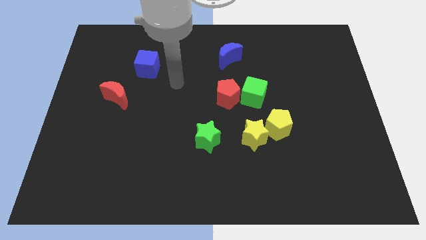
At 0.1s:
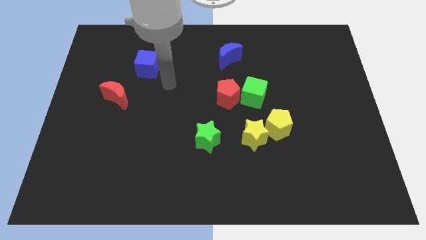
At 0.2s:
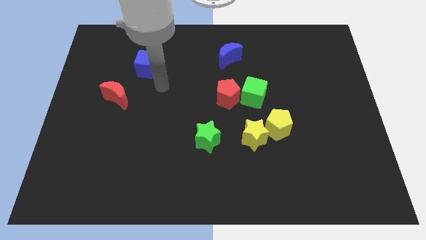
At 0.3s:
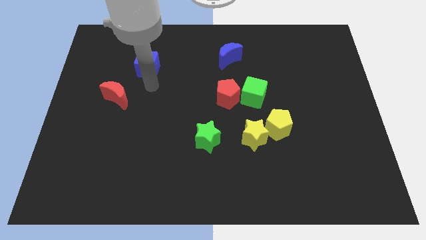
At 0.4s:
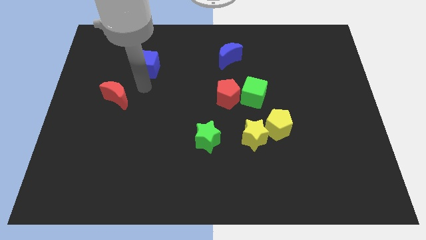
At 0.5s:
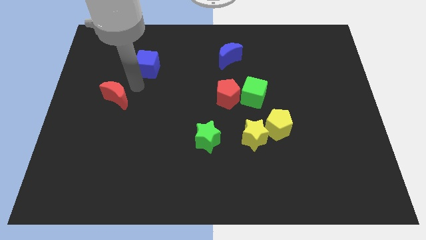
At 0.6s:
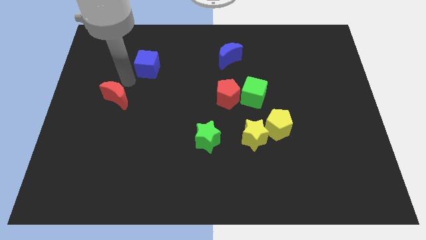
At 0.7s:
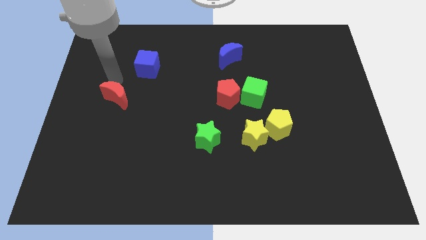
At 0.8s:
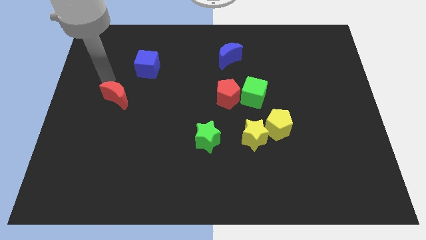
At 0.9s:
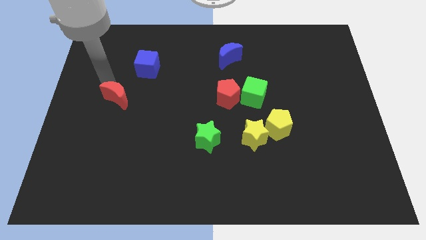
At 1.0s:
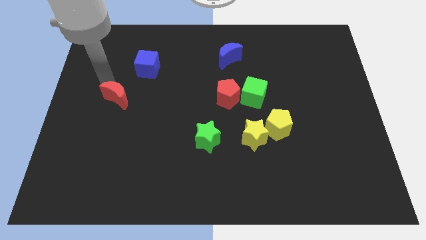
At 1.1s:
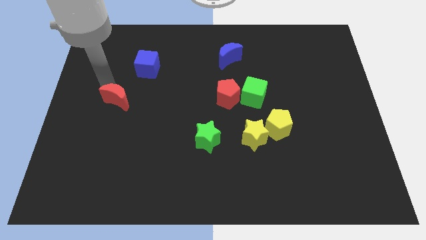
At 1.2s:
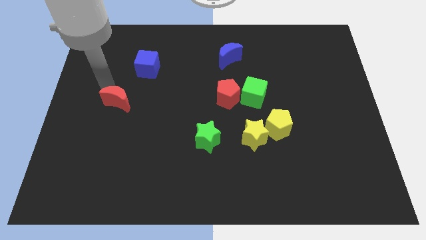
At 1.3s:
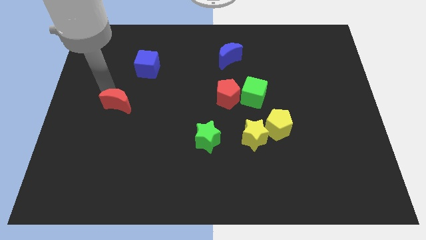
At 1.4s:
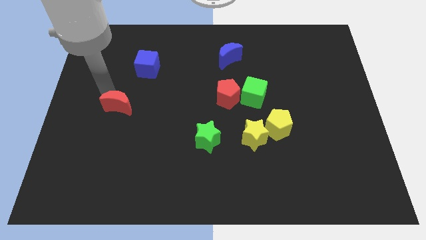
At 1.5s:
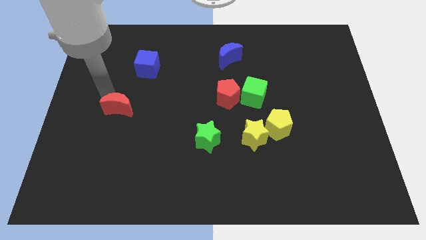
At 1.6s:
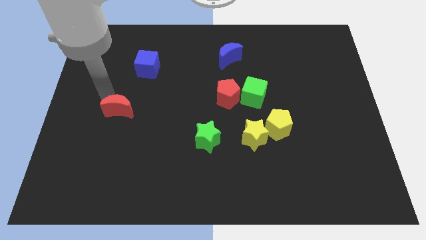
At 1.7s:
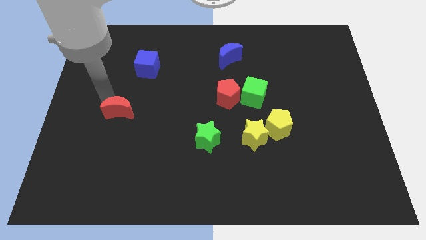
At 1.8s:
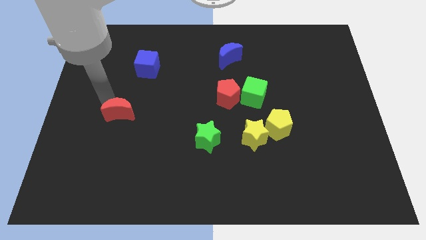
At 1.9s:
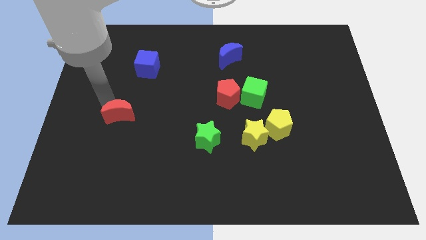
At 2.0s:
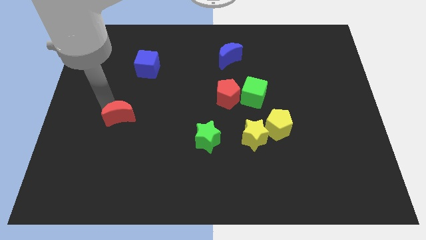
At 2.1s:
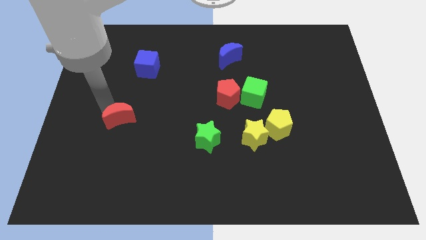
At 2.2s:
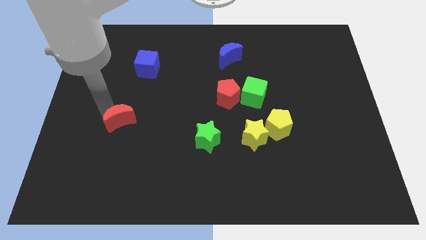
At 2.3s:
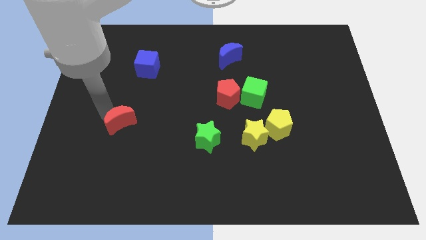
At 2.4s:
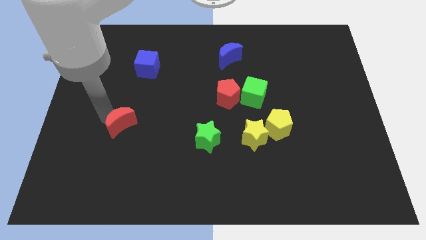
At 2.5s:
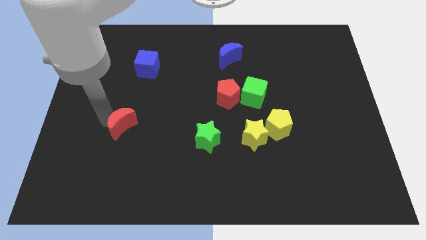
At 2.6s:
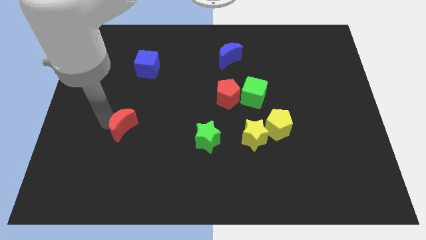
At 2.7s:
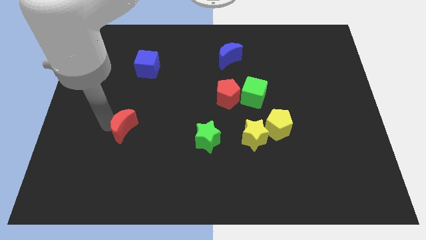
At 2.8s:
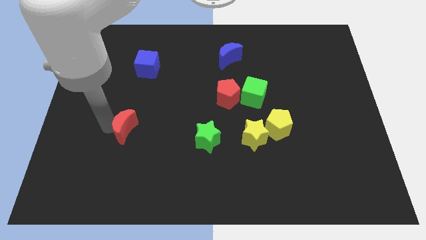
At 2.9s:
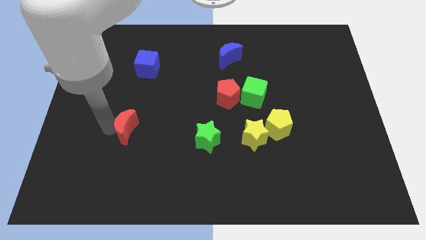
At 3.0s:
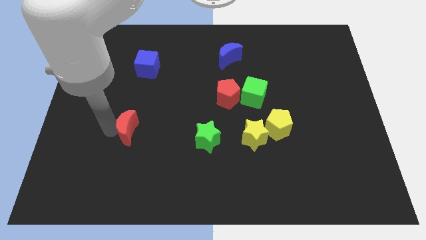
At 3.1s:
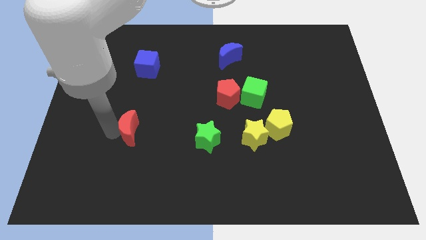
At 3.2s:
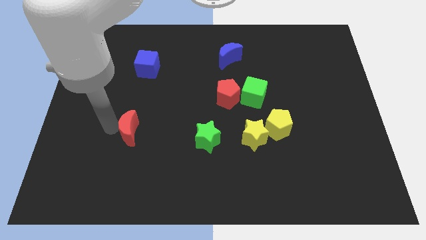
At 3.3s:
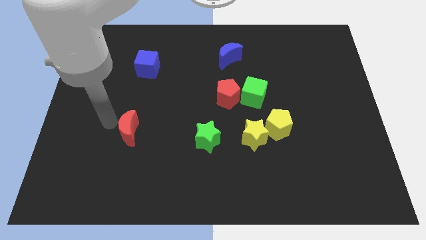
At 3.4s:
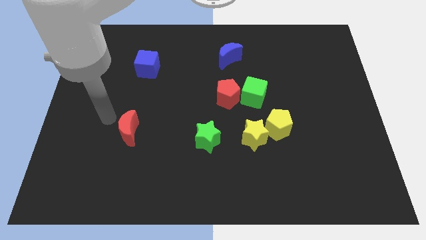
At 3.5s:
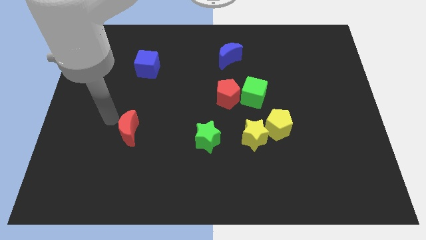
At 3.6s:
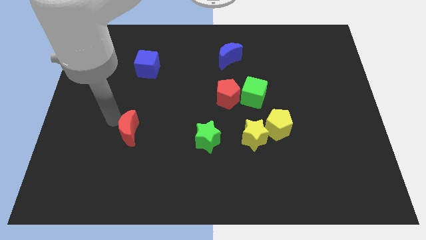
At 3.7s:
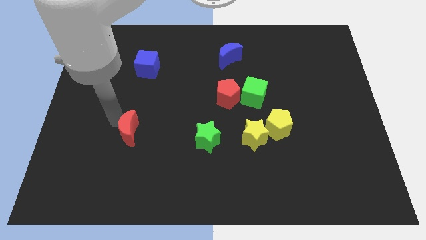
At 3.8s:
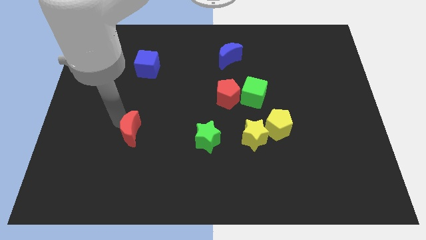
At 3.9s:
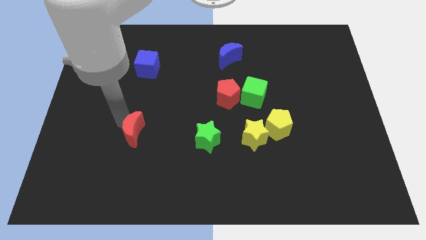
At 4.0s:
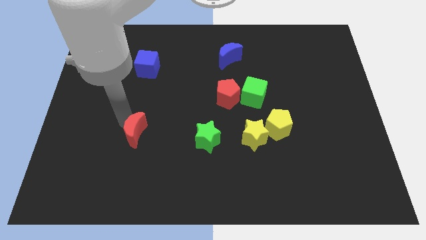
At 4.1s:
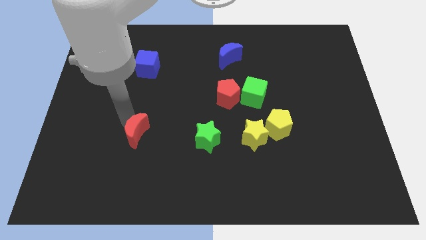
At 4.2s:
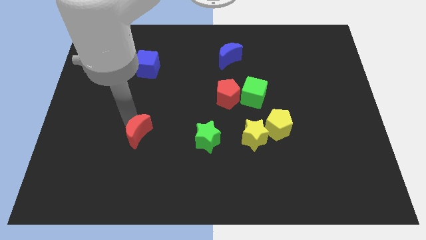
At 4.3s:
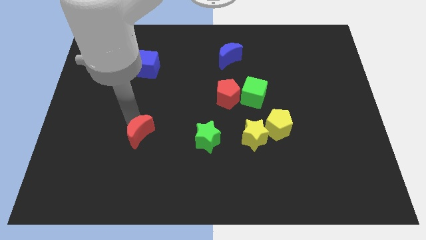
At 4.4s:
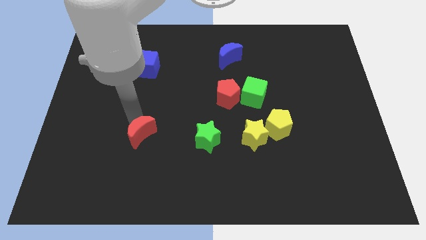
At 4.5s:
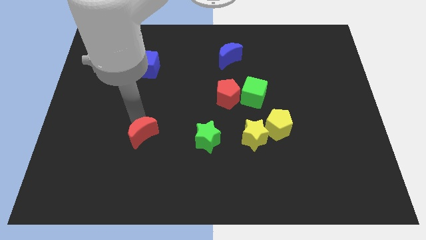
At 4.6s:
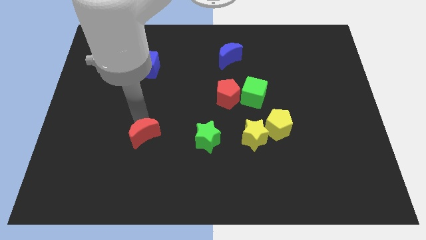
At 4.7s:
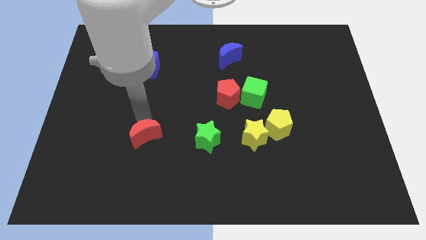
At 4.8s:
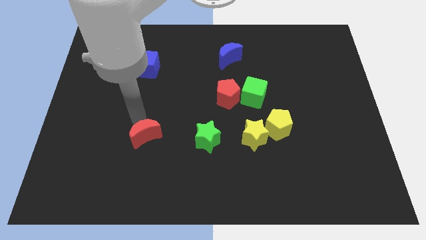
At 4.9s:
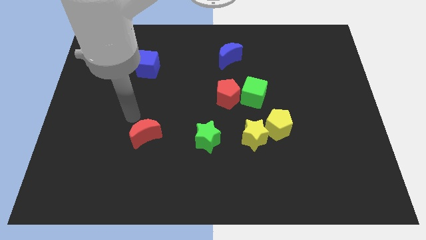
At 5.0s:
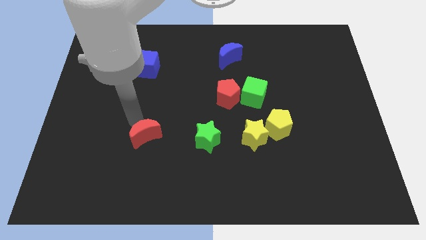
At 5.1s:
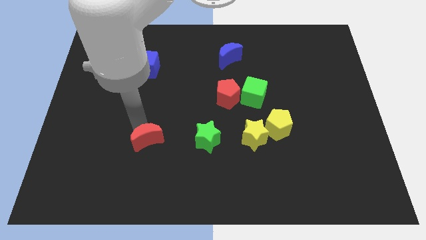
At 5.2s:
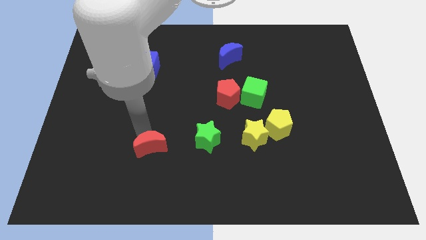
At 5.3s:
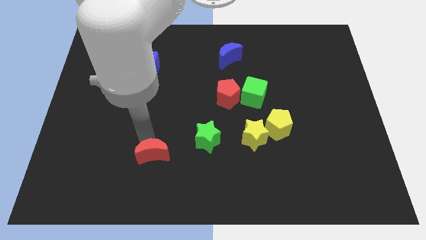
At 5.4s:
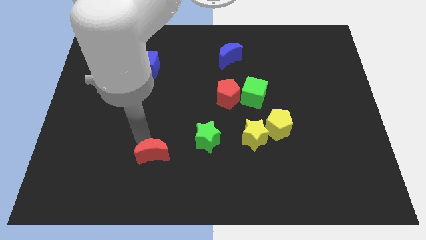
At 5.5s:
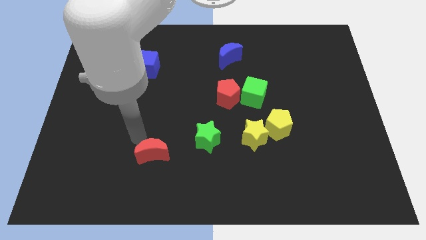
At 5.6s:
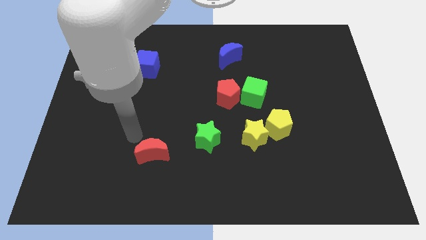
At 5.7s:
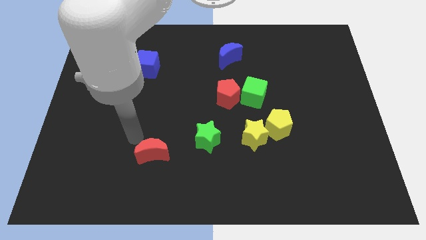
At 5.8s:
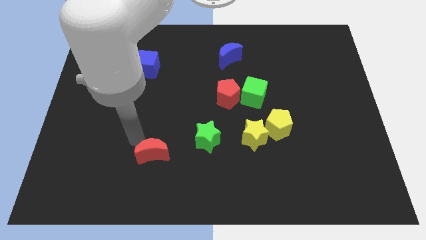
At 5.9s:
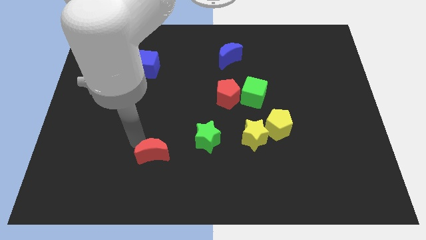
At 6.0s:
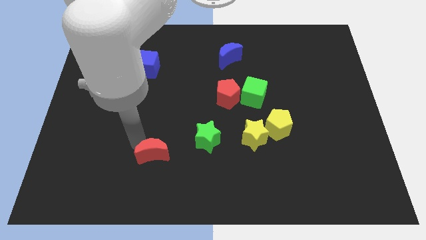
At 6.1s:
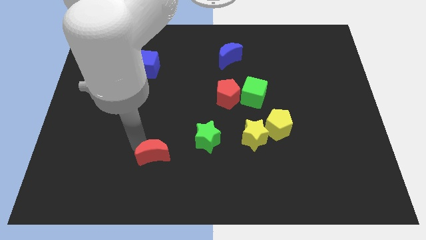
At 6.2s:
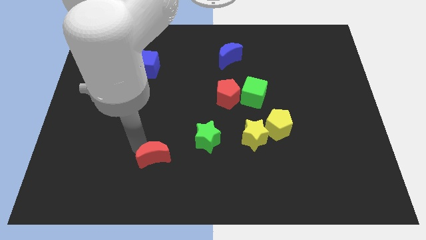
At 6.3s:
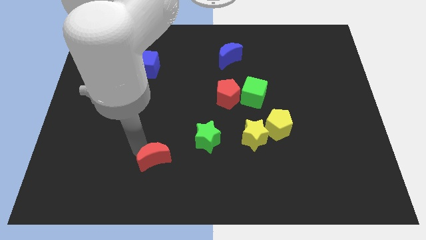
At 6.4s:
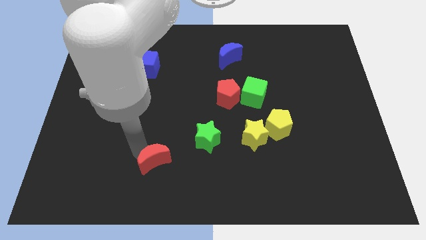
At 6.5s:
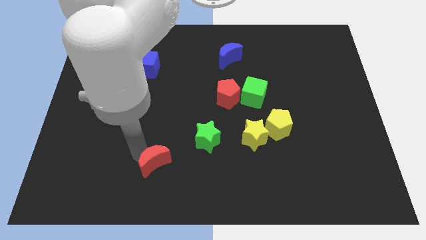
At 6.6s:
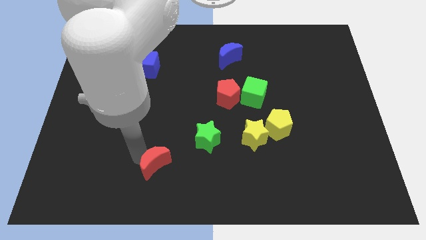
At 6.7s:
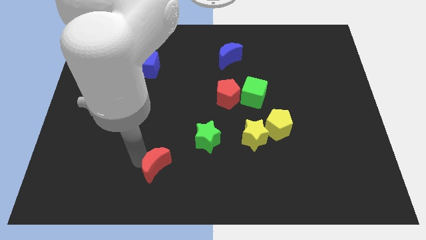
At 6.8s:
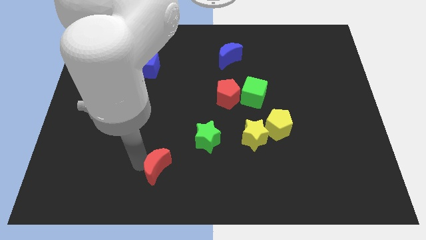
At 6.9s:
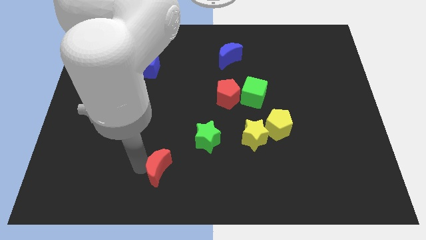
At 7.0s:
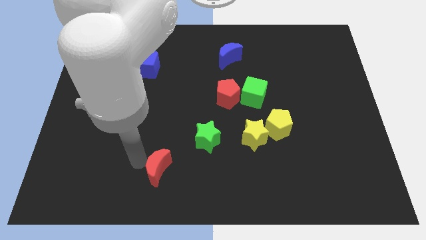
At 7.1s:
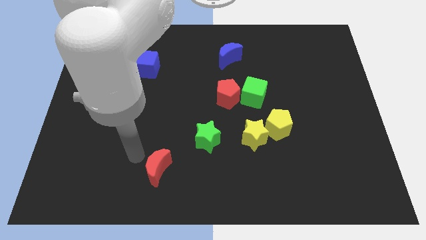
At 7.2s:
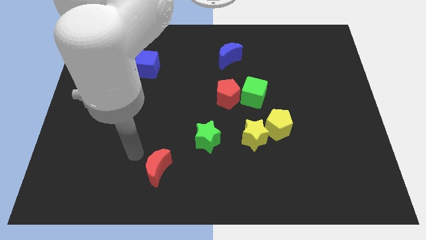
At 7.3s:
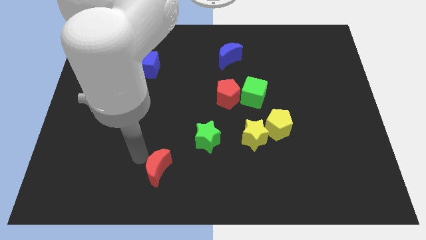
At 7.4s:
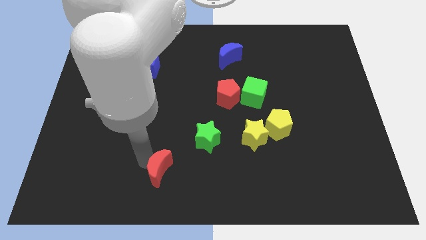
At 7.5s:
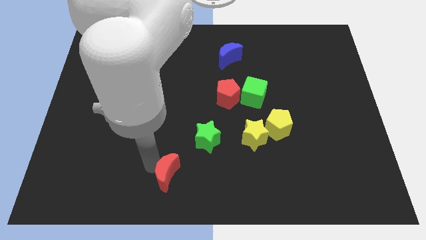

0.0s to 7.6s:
move the red moon to the bottom side
